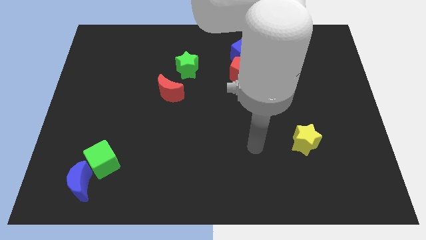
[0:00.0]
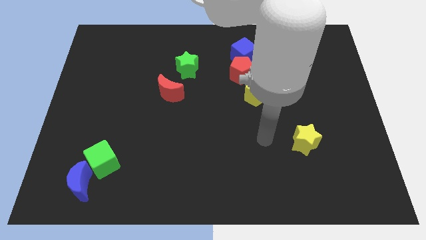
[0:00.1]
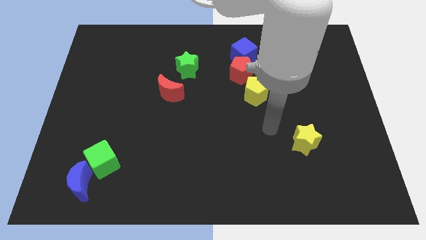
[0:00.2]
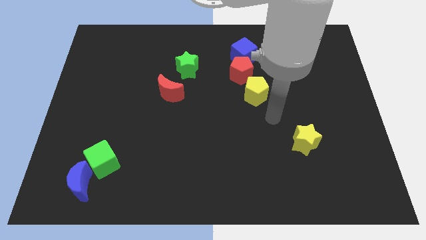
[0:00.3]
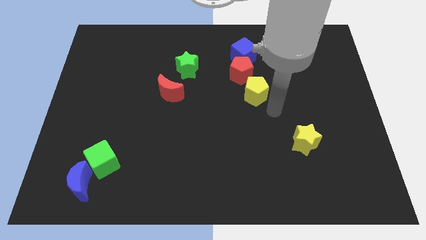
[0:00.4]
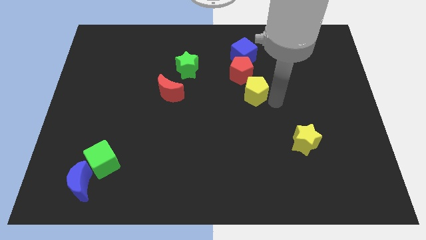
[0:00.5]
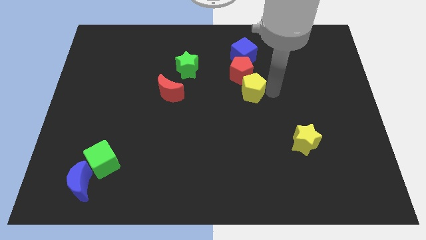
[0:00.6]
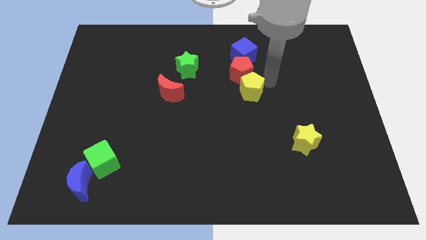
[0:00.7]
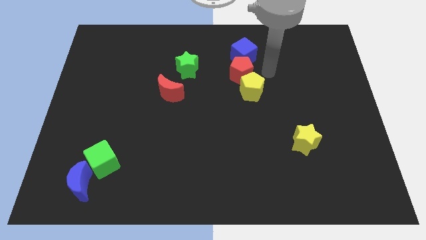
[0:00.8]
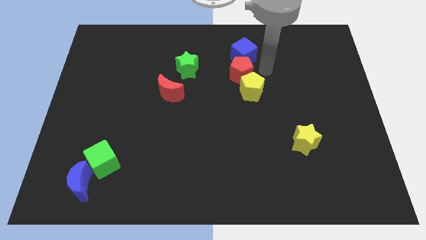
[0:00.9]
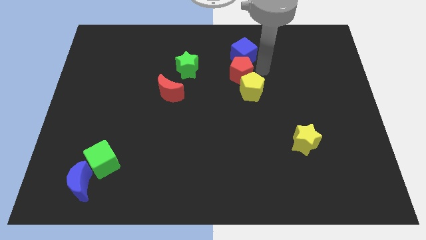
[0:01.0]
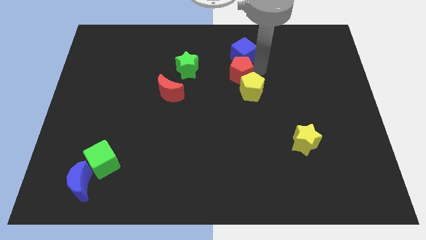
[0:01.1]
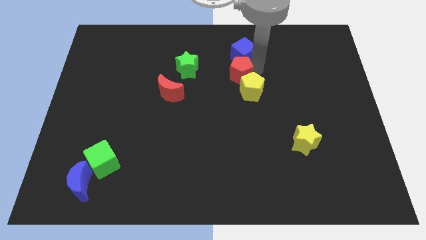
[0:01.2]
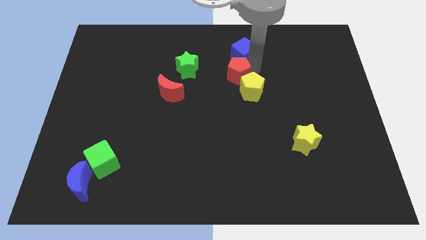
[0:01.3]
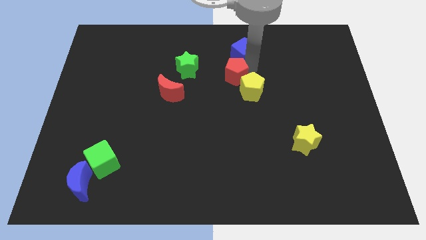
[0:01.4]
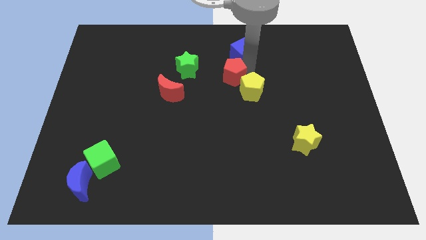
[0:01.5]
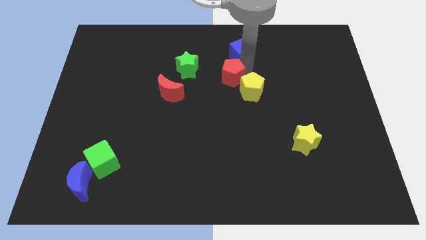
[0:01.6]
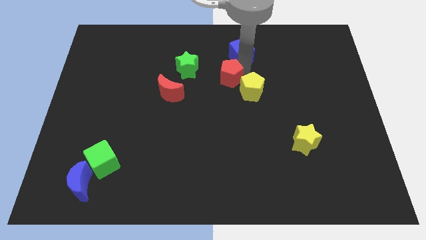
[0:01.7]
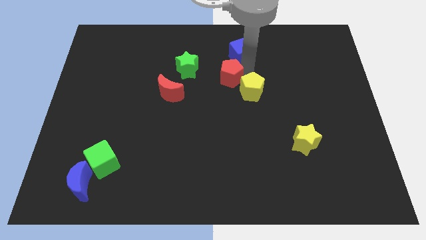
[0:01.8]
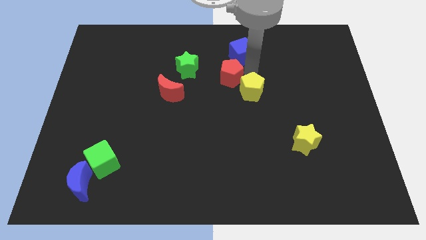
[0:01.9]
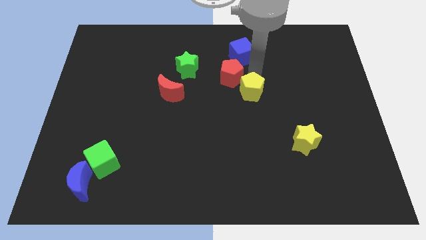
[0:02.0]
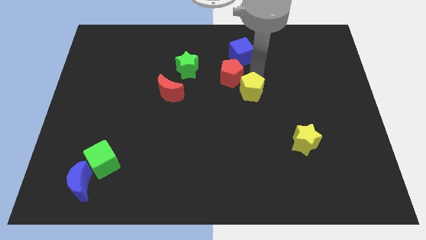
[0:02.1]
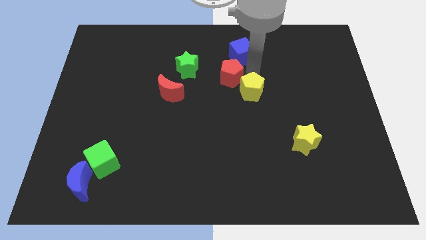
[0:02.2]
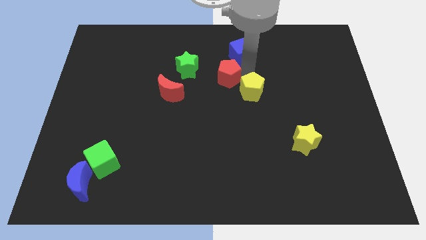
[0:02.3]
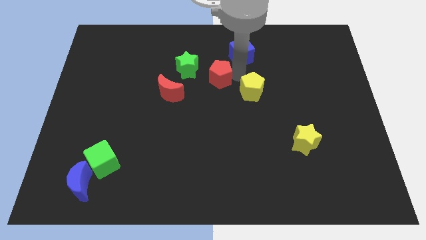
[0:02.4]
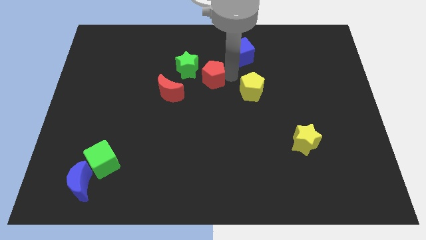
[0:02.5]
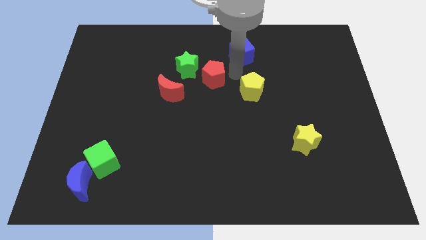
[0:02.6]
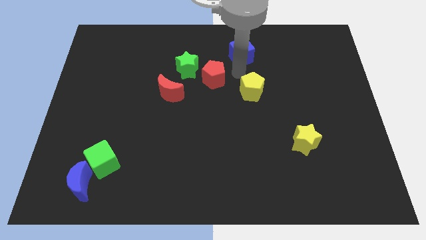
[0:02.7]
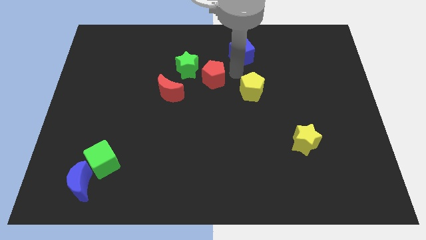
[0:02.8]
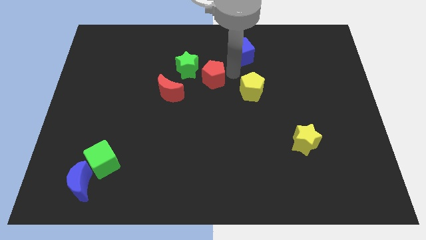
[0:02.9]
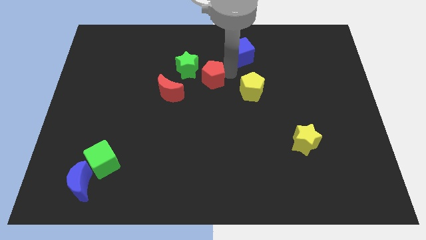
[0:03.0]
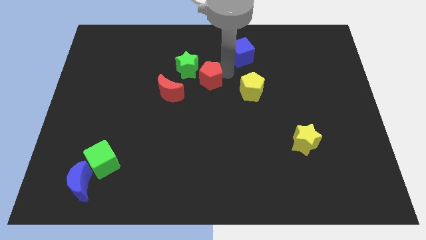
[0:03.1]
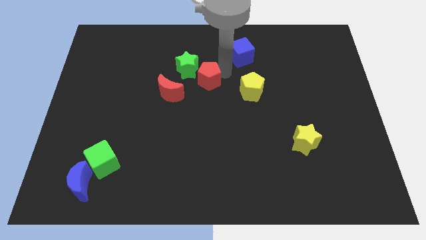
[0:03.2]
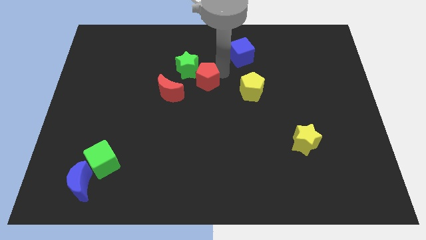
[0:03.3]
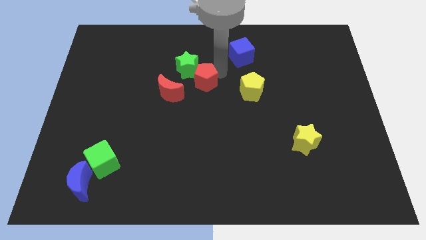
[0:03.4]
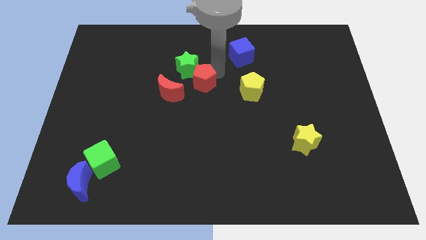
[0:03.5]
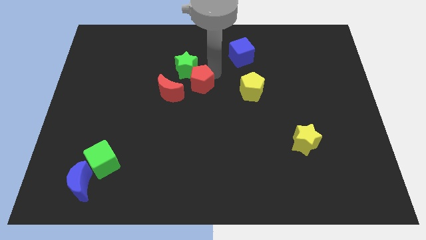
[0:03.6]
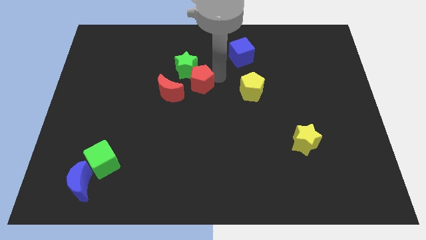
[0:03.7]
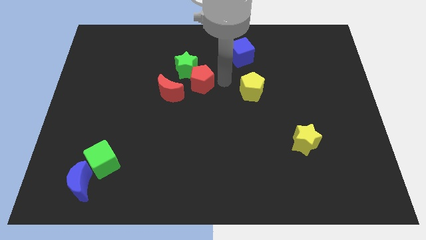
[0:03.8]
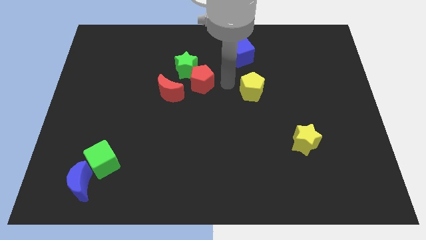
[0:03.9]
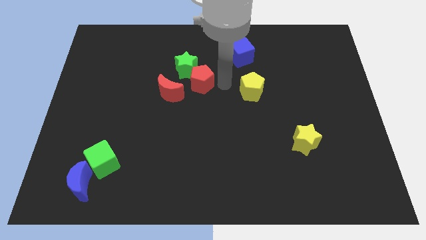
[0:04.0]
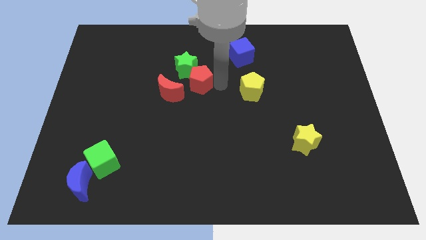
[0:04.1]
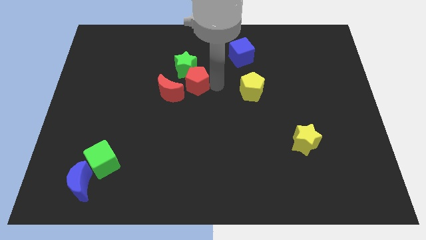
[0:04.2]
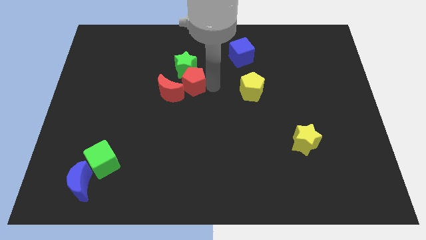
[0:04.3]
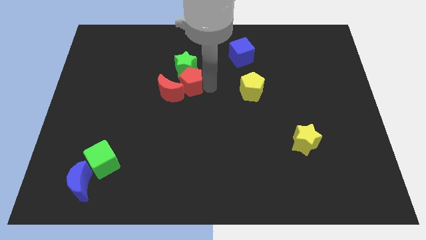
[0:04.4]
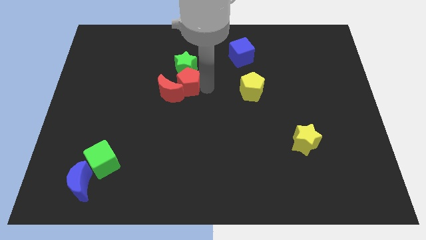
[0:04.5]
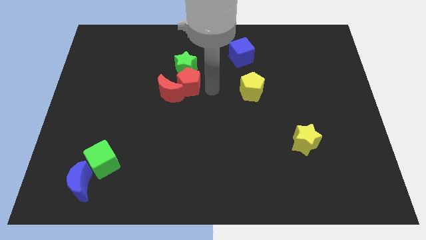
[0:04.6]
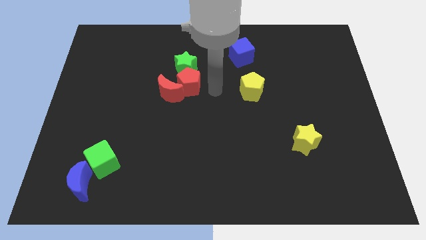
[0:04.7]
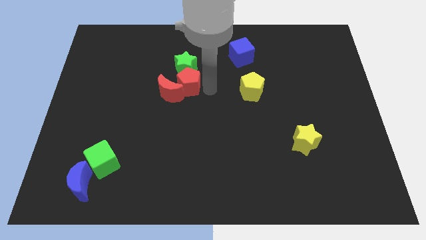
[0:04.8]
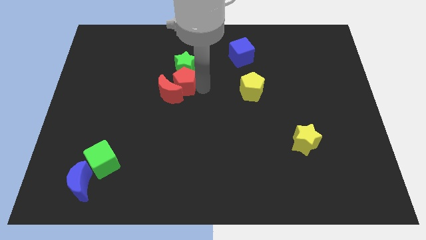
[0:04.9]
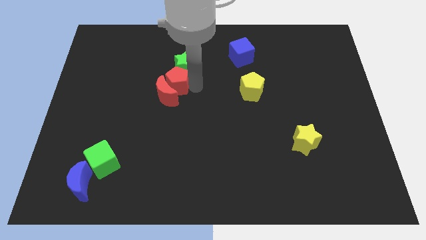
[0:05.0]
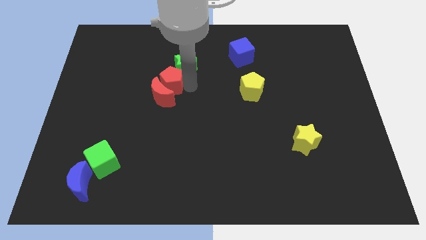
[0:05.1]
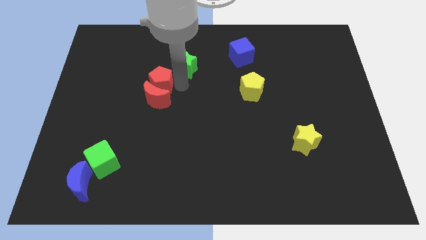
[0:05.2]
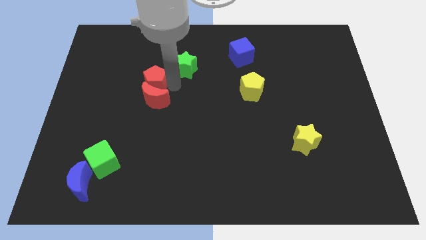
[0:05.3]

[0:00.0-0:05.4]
move the red pentagon to the left

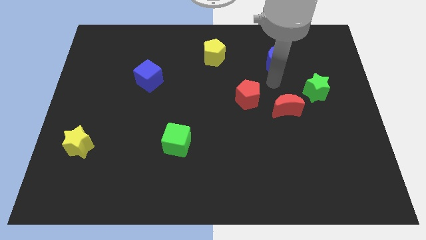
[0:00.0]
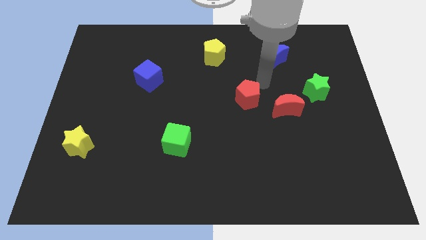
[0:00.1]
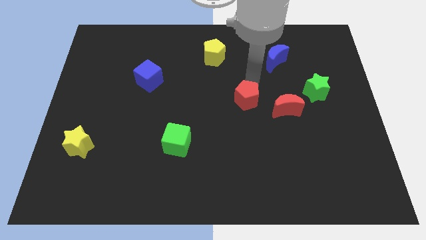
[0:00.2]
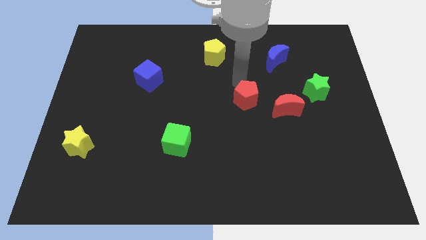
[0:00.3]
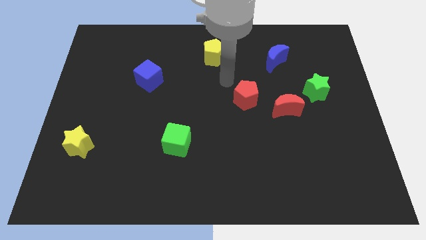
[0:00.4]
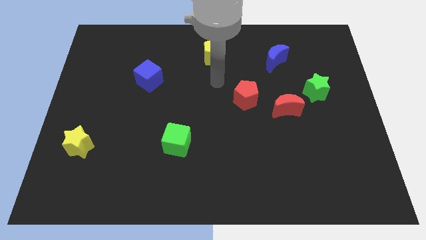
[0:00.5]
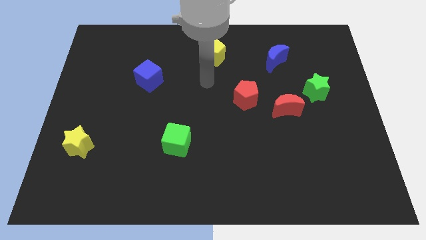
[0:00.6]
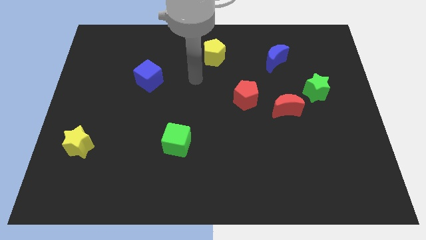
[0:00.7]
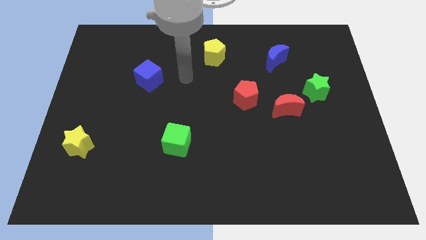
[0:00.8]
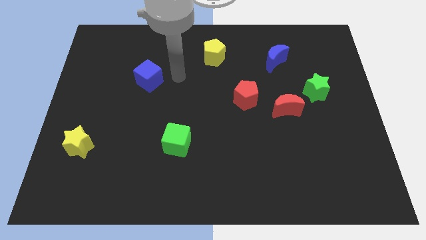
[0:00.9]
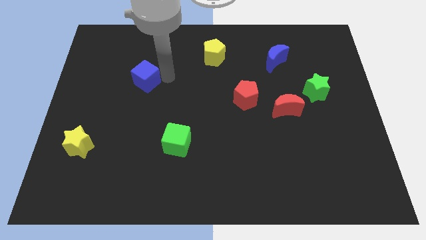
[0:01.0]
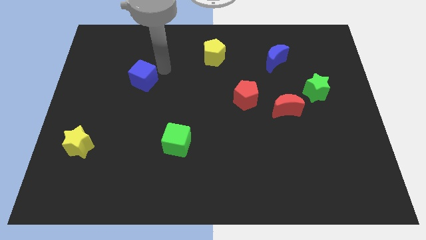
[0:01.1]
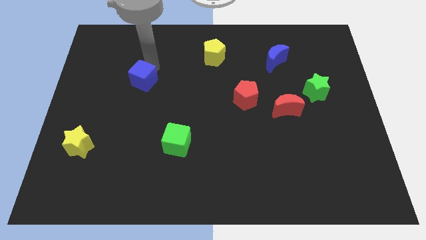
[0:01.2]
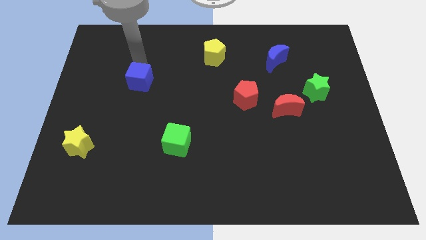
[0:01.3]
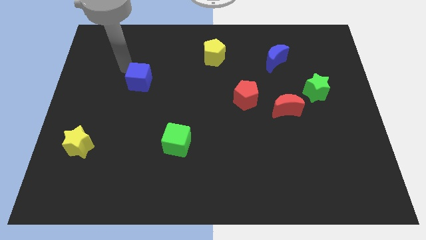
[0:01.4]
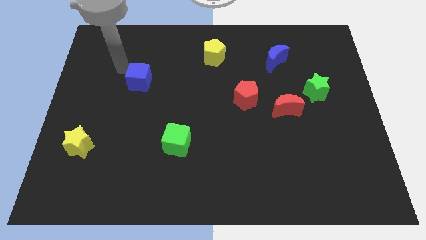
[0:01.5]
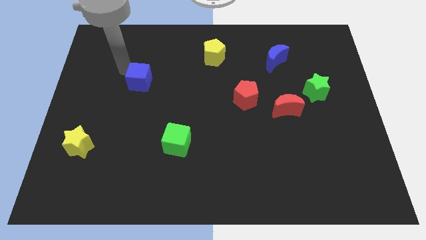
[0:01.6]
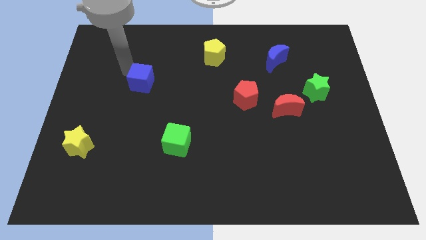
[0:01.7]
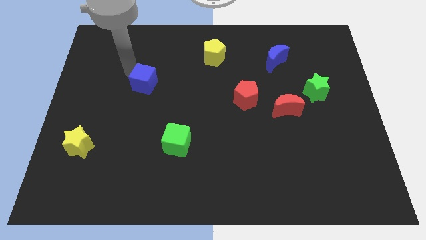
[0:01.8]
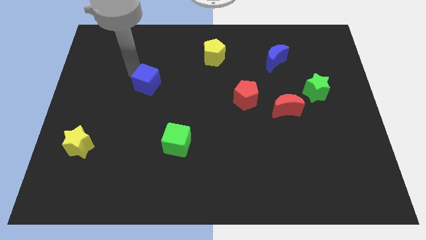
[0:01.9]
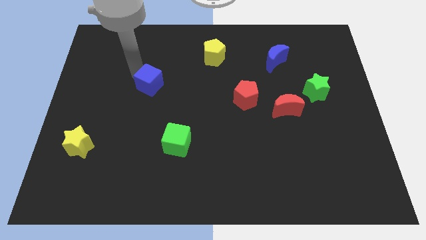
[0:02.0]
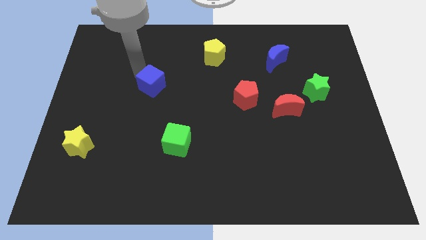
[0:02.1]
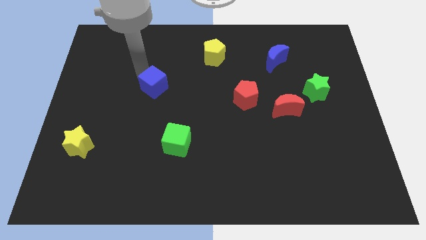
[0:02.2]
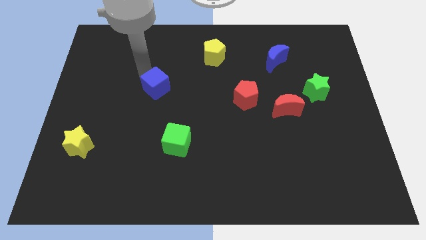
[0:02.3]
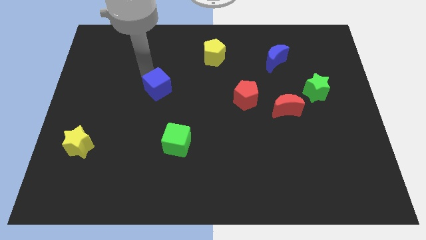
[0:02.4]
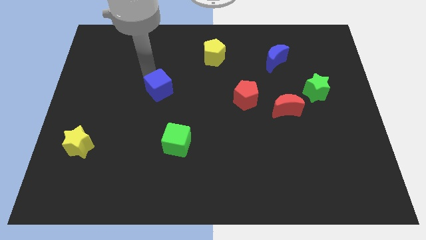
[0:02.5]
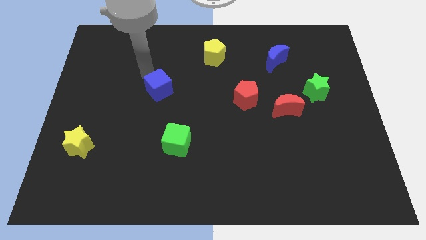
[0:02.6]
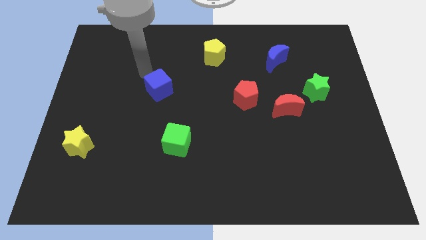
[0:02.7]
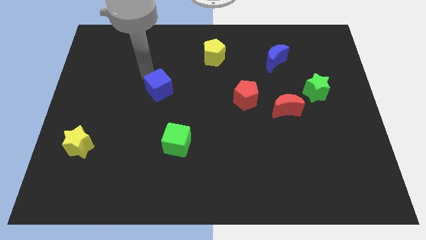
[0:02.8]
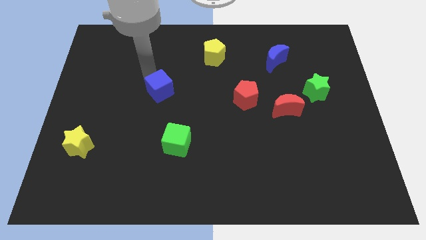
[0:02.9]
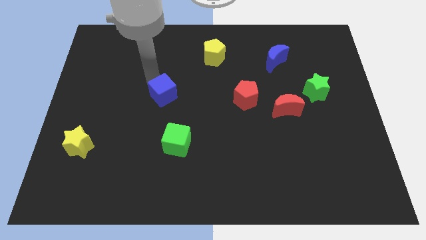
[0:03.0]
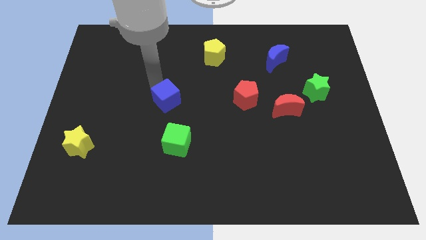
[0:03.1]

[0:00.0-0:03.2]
push the blue cube downwards and to the right a bit
